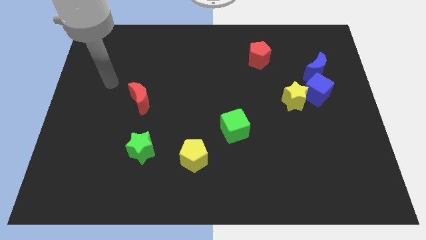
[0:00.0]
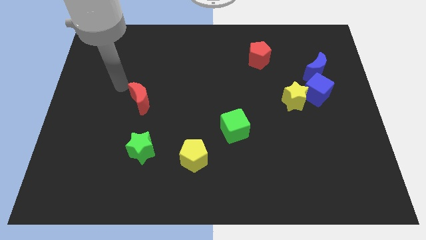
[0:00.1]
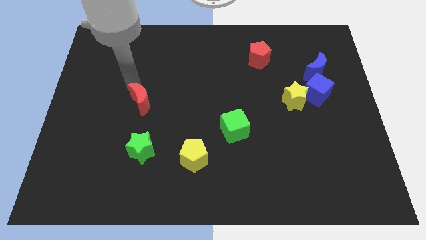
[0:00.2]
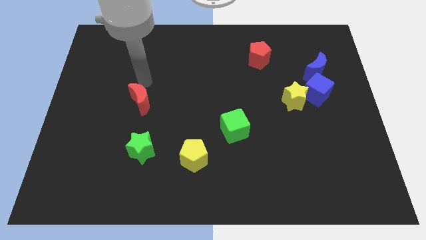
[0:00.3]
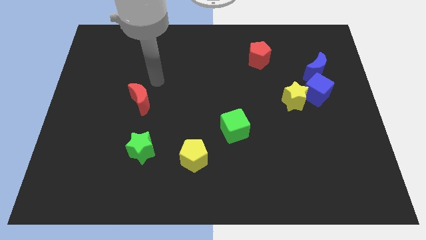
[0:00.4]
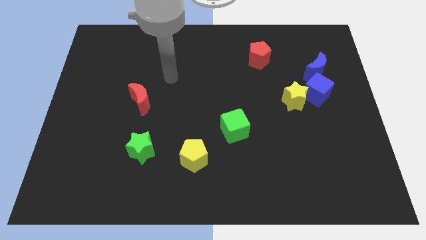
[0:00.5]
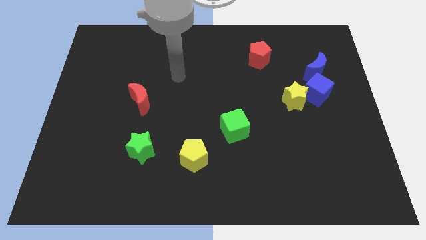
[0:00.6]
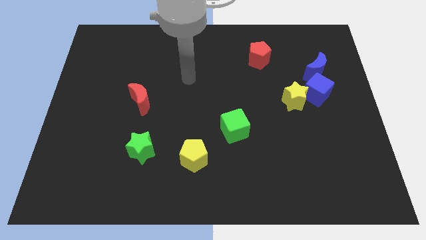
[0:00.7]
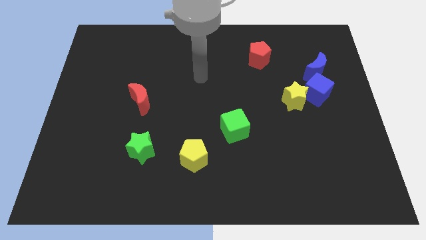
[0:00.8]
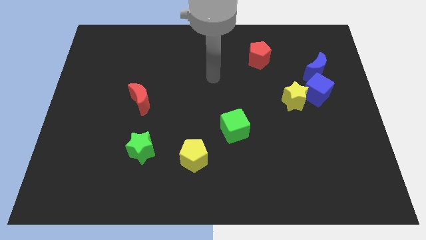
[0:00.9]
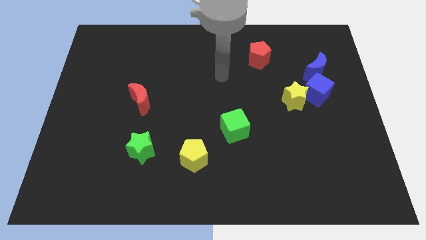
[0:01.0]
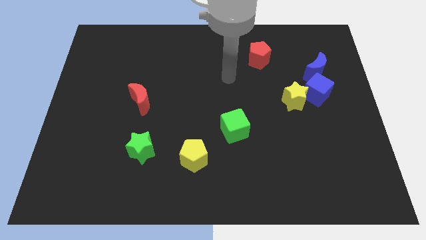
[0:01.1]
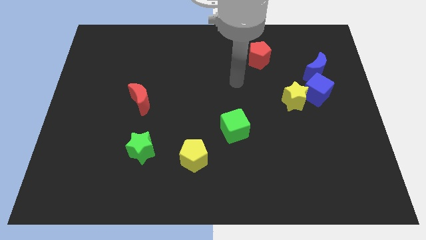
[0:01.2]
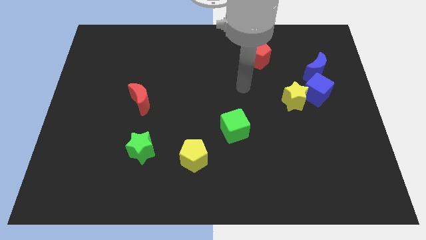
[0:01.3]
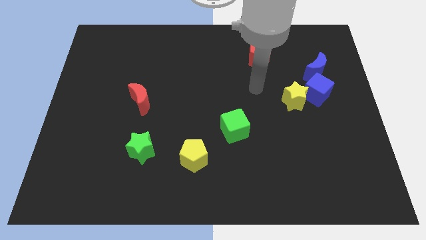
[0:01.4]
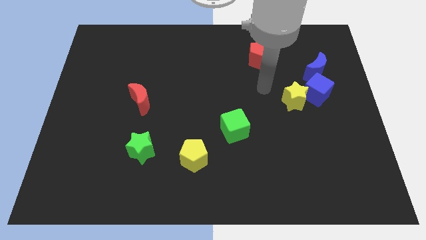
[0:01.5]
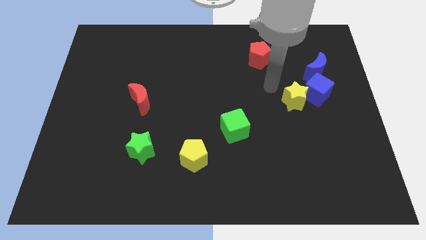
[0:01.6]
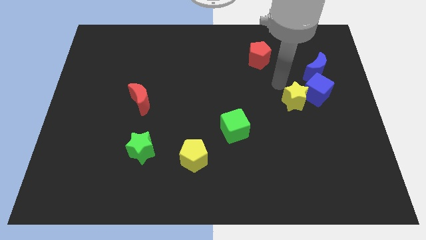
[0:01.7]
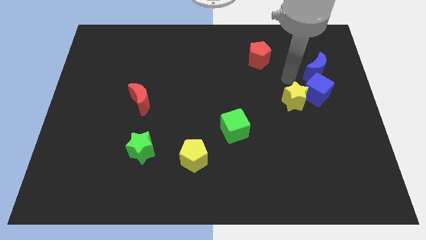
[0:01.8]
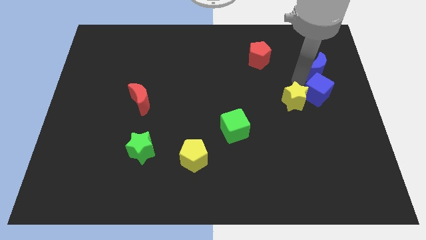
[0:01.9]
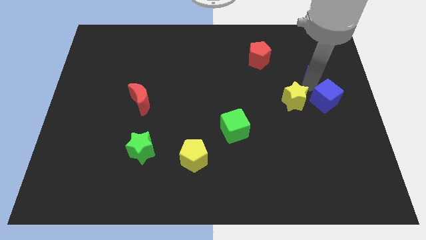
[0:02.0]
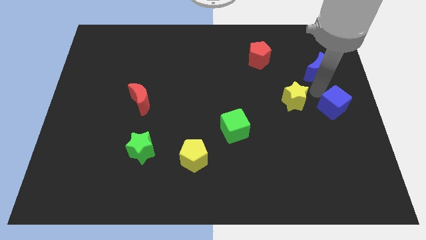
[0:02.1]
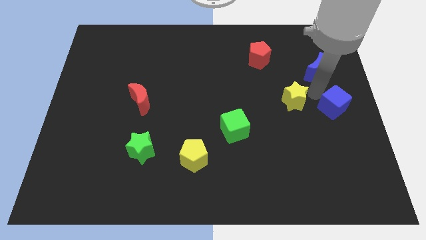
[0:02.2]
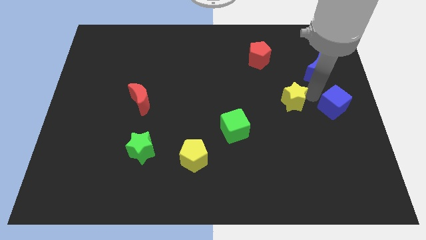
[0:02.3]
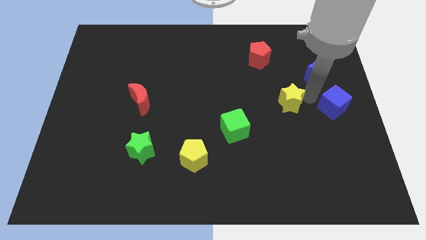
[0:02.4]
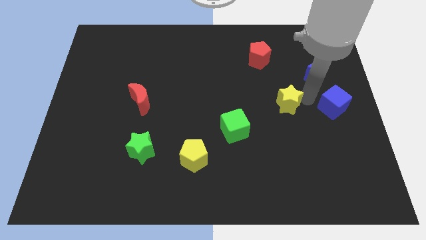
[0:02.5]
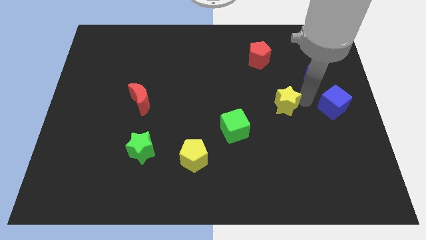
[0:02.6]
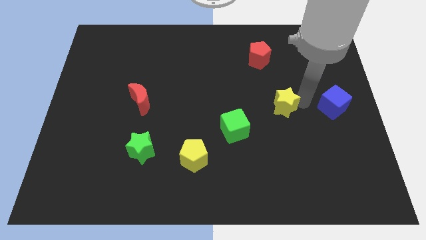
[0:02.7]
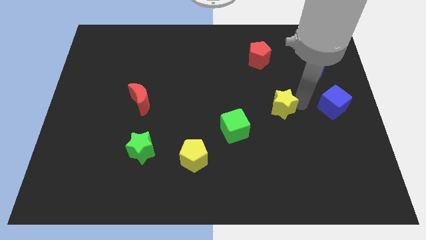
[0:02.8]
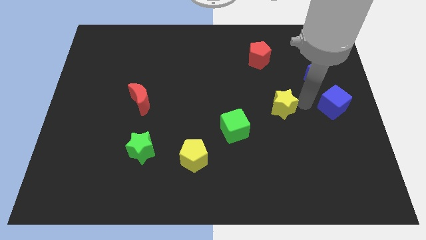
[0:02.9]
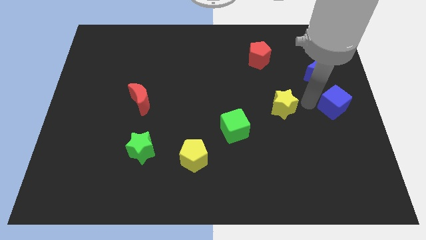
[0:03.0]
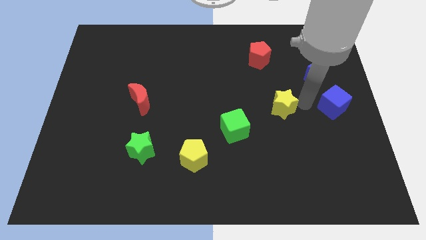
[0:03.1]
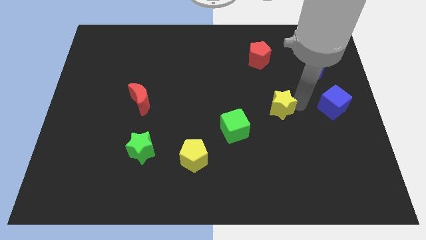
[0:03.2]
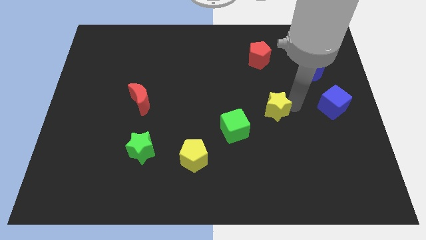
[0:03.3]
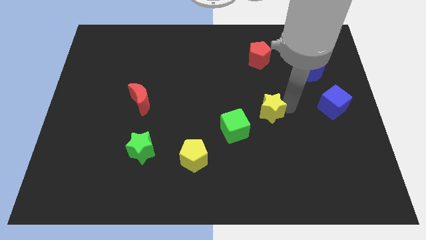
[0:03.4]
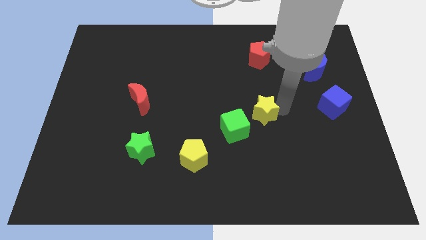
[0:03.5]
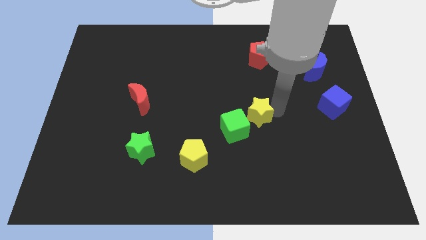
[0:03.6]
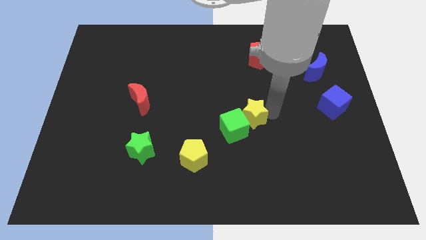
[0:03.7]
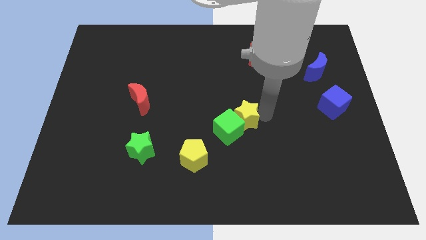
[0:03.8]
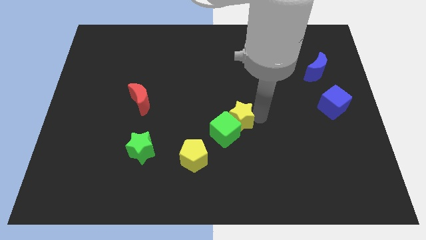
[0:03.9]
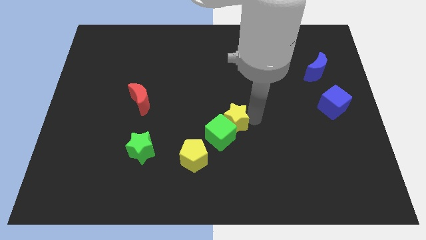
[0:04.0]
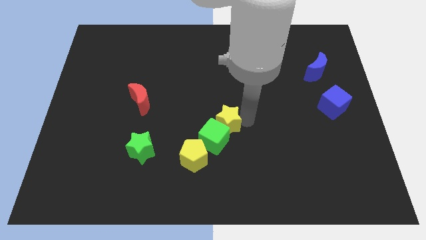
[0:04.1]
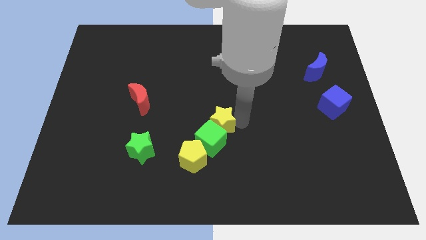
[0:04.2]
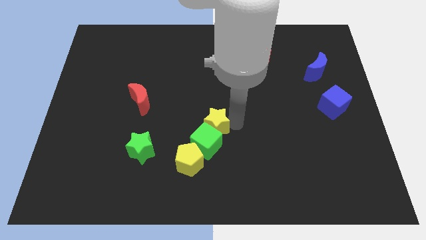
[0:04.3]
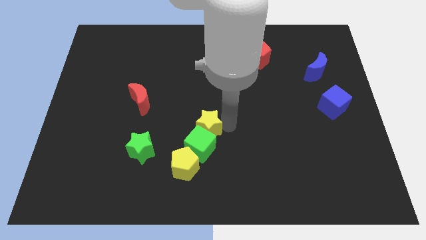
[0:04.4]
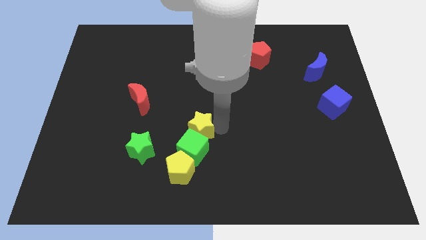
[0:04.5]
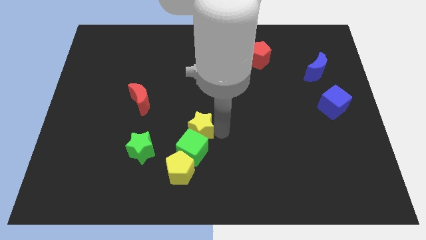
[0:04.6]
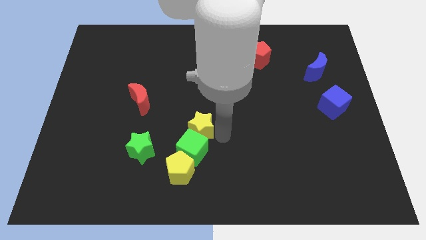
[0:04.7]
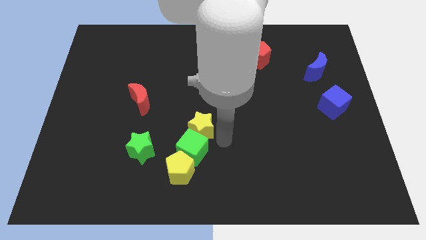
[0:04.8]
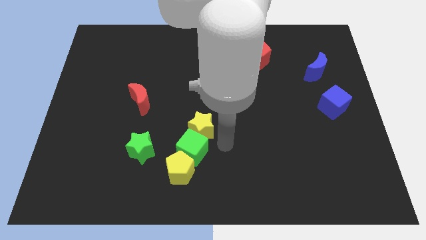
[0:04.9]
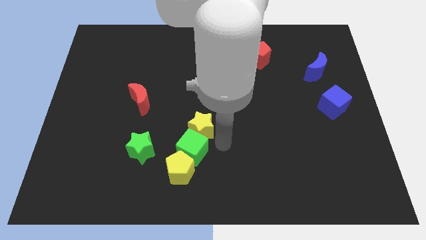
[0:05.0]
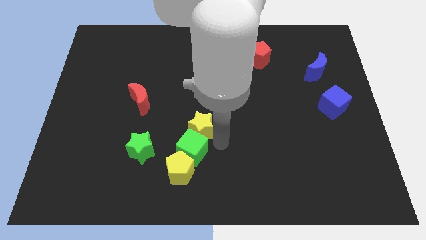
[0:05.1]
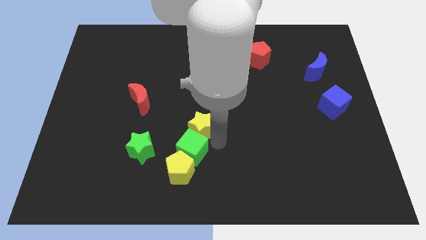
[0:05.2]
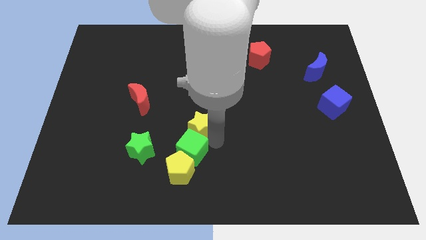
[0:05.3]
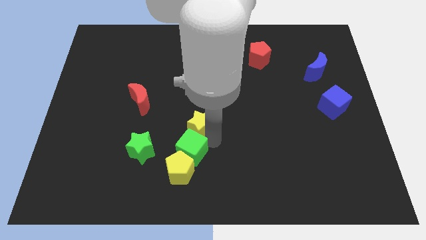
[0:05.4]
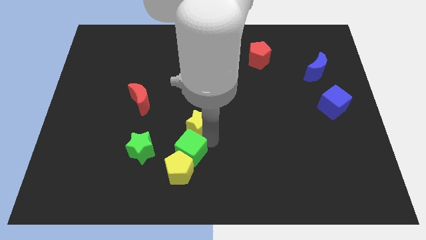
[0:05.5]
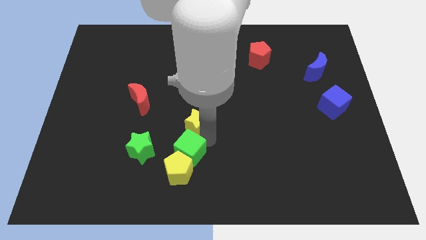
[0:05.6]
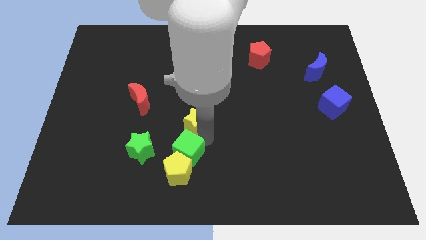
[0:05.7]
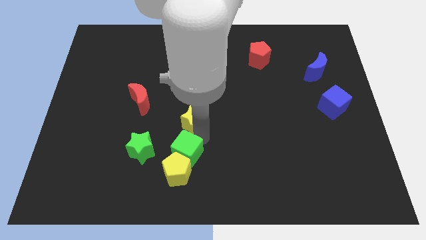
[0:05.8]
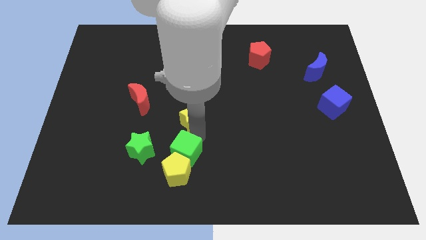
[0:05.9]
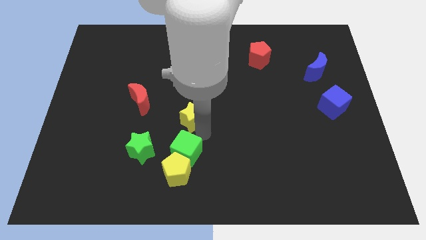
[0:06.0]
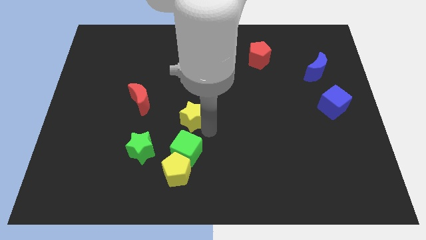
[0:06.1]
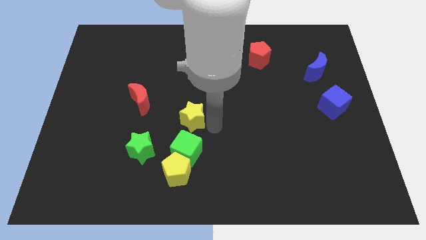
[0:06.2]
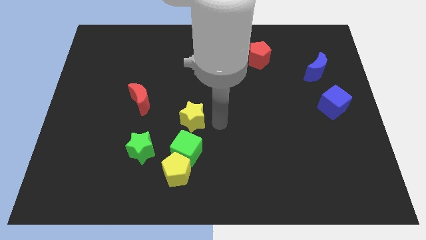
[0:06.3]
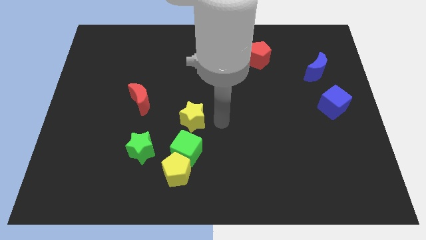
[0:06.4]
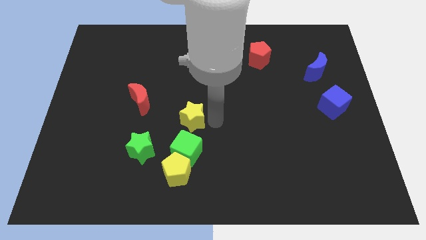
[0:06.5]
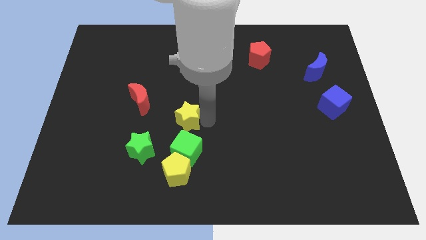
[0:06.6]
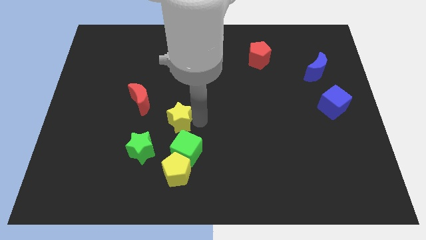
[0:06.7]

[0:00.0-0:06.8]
move the yellow star to the bottom right of the red moon
